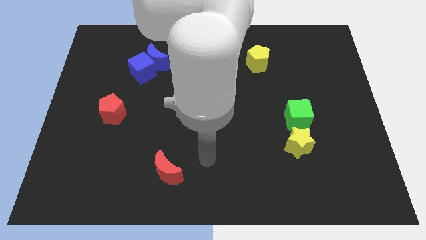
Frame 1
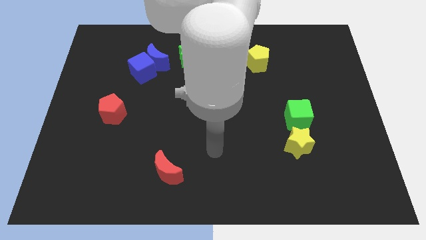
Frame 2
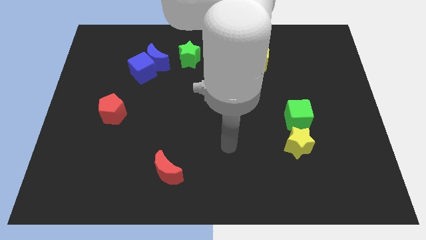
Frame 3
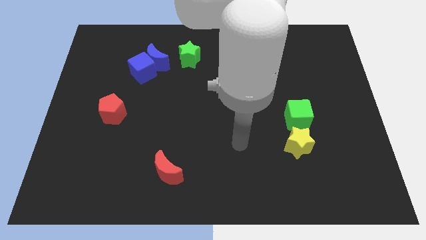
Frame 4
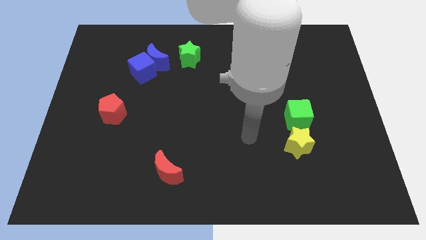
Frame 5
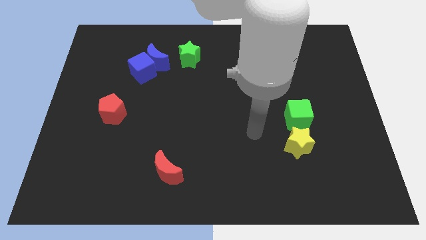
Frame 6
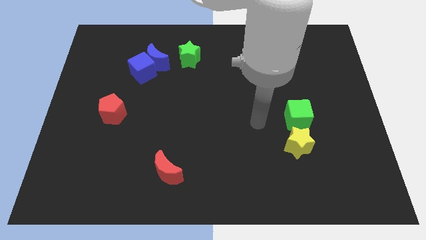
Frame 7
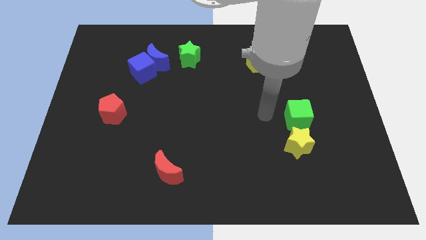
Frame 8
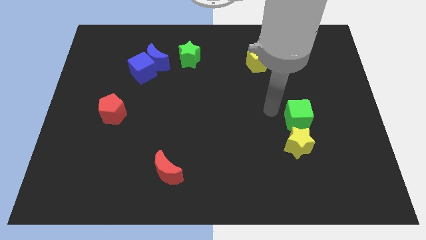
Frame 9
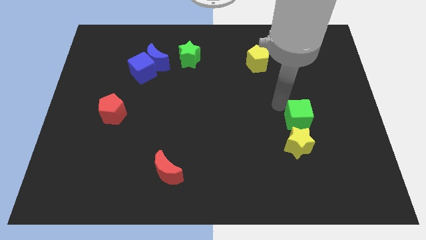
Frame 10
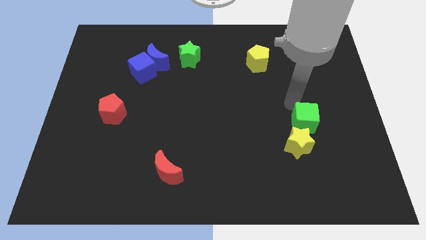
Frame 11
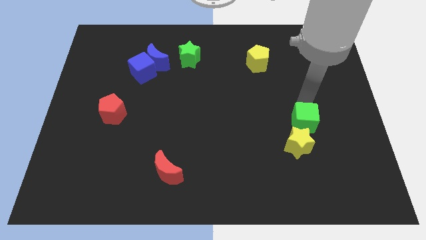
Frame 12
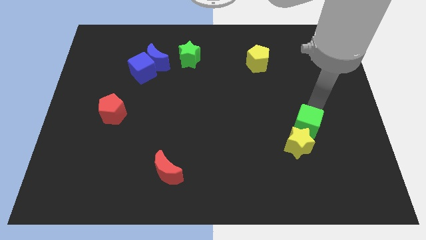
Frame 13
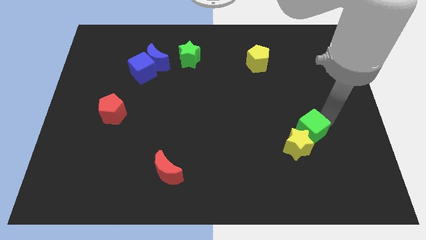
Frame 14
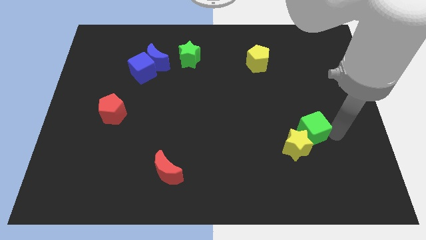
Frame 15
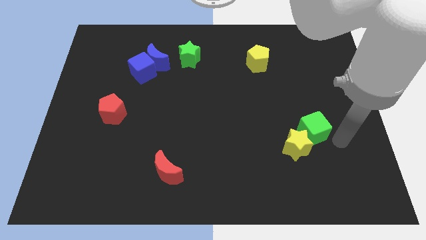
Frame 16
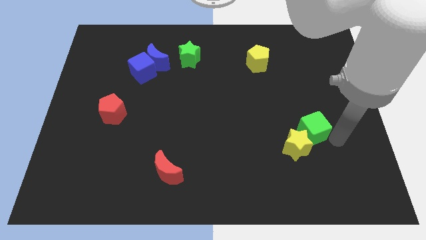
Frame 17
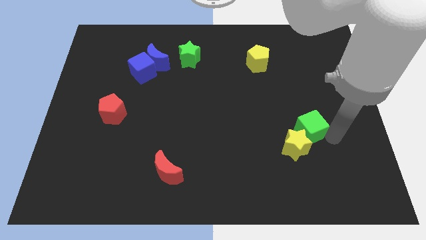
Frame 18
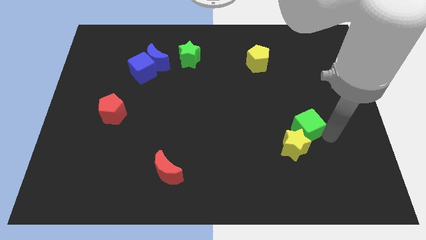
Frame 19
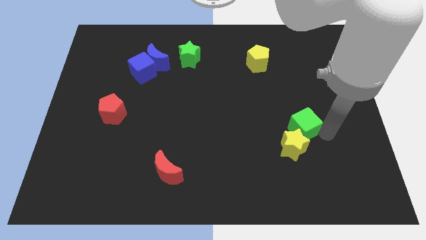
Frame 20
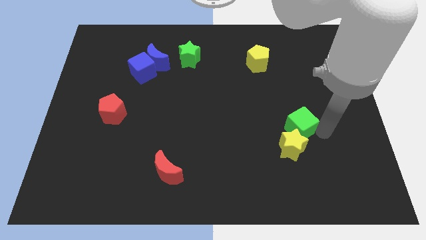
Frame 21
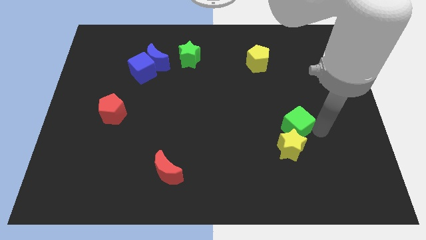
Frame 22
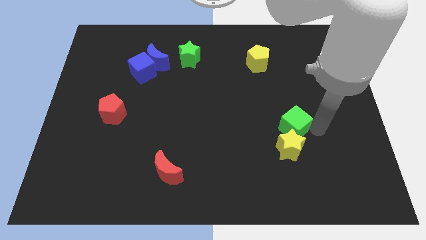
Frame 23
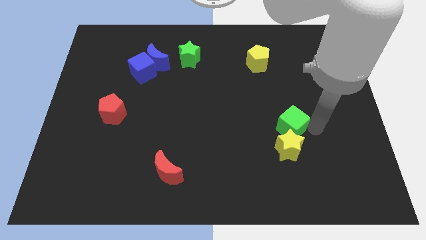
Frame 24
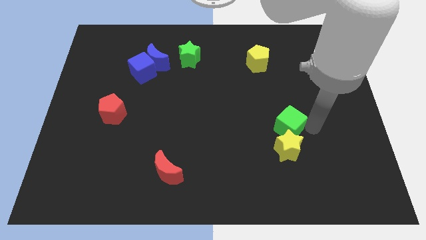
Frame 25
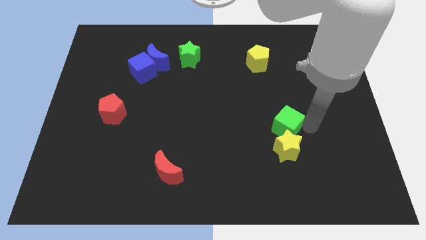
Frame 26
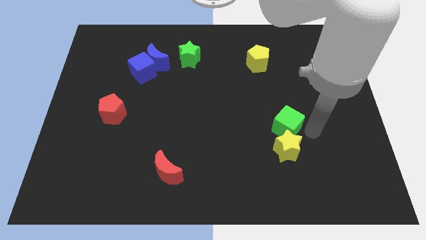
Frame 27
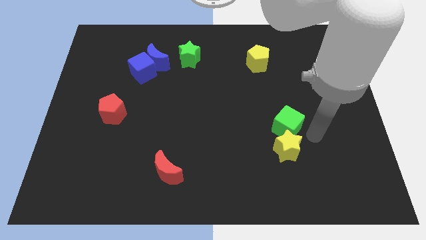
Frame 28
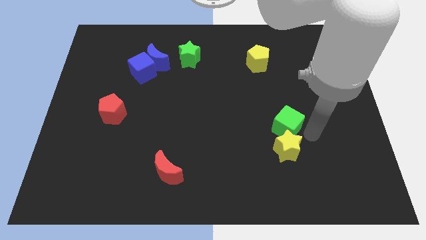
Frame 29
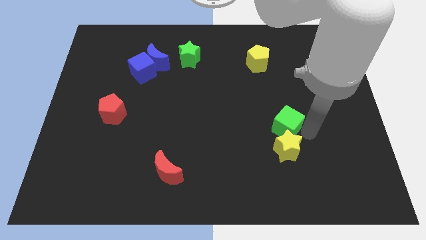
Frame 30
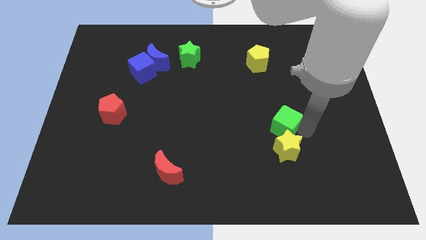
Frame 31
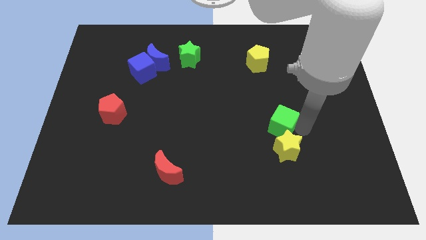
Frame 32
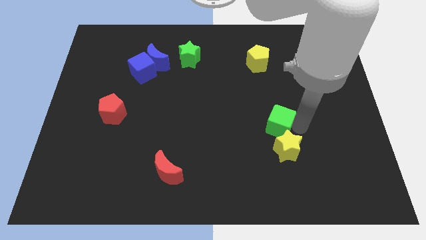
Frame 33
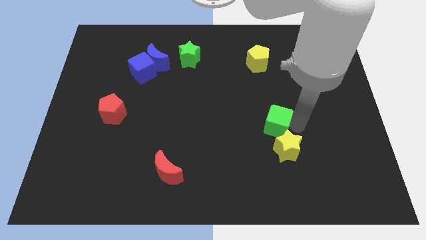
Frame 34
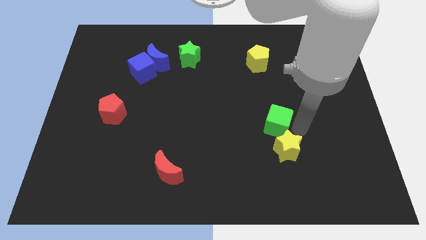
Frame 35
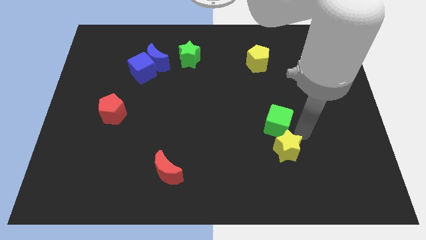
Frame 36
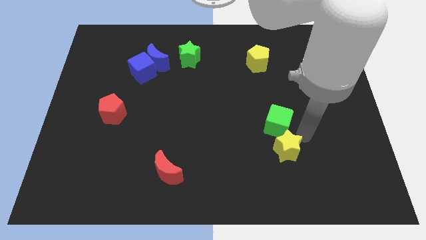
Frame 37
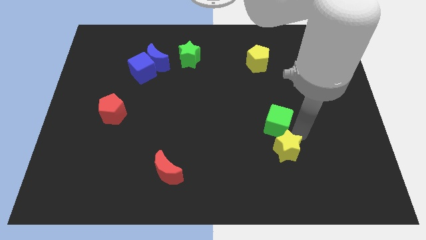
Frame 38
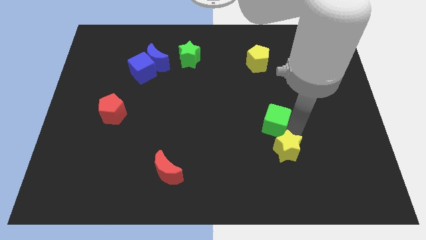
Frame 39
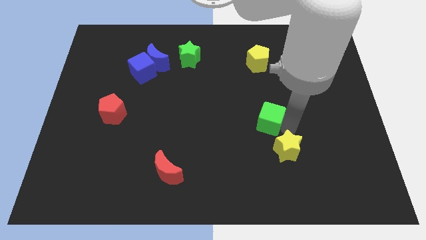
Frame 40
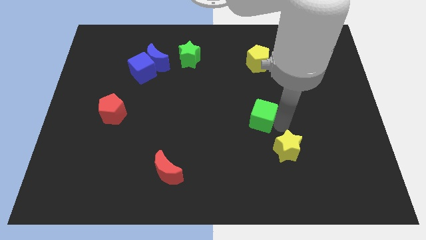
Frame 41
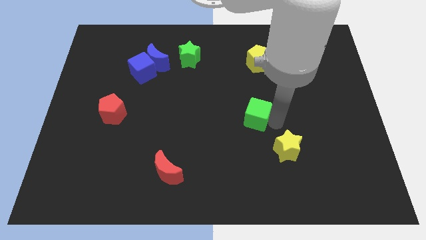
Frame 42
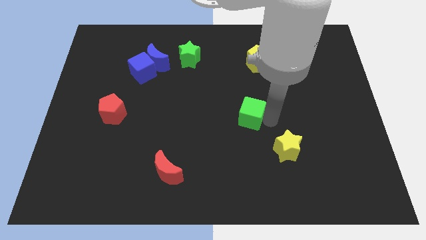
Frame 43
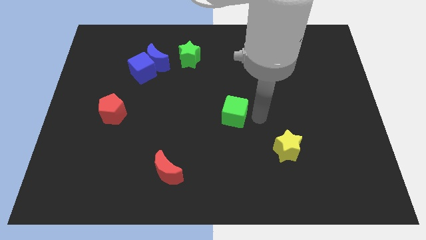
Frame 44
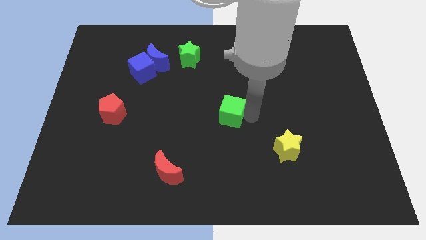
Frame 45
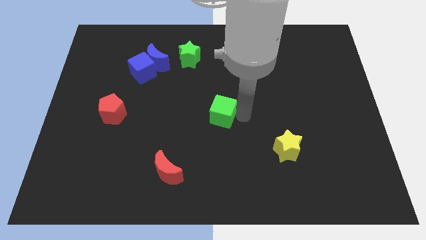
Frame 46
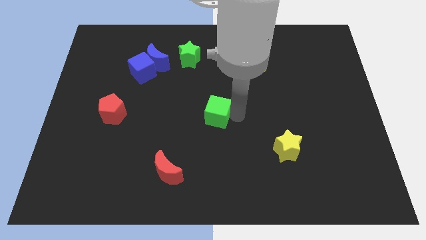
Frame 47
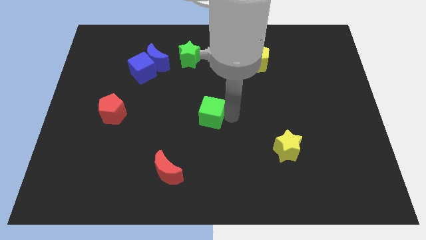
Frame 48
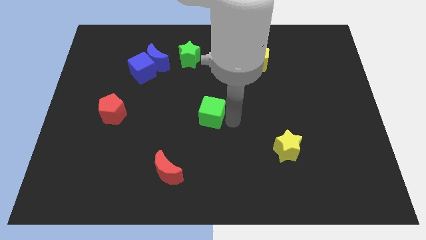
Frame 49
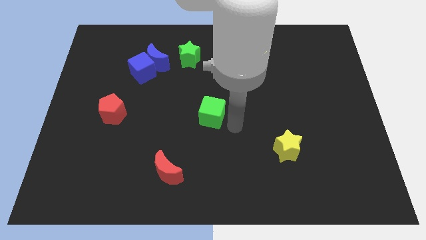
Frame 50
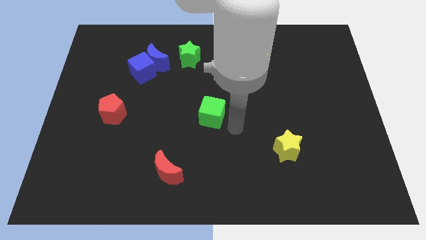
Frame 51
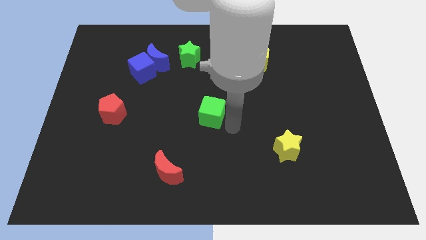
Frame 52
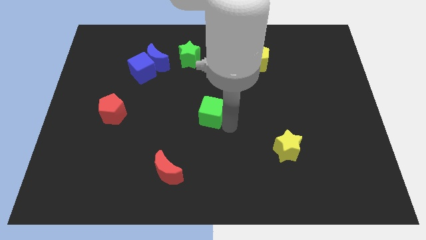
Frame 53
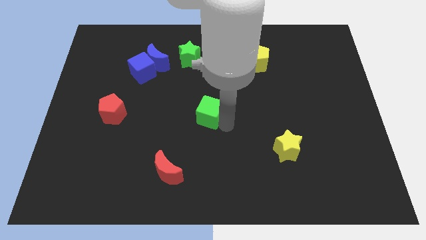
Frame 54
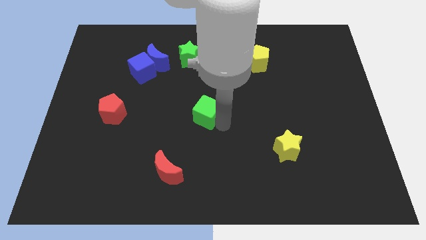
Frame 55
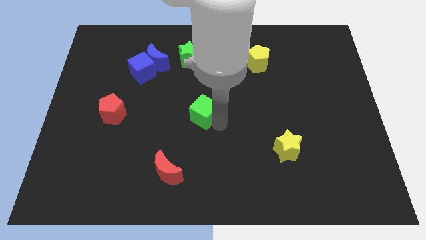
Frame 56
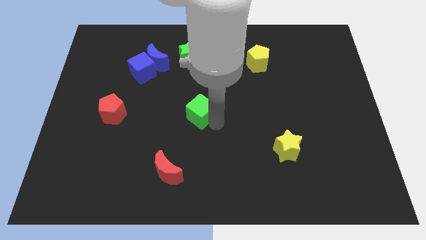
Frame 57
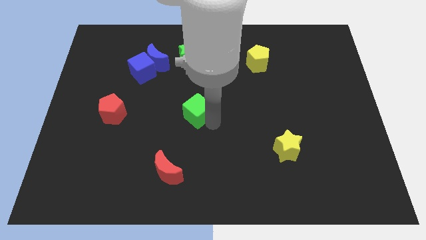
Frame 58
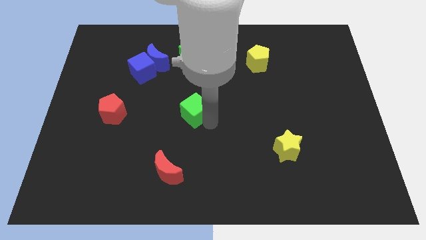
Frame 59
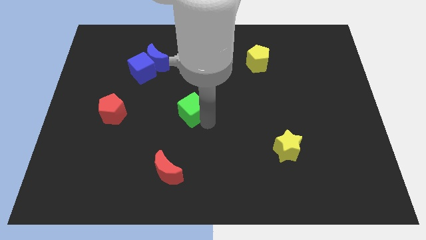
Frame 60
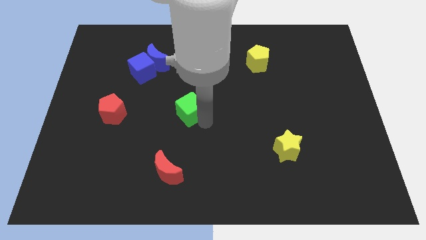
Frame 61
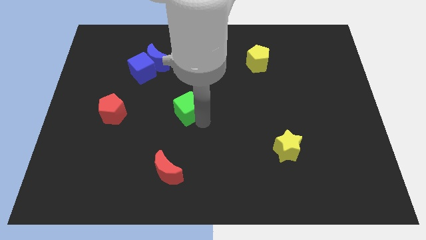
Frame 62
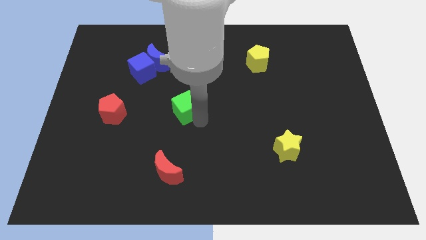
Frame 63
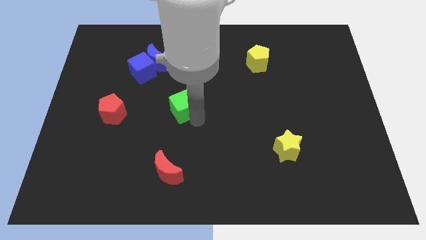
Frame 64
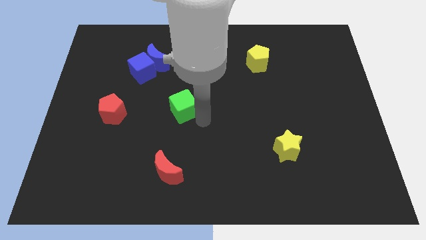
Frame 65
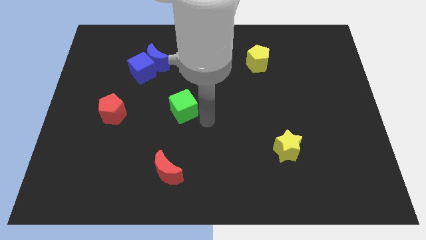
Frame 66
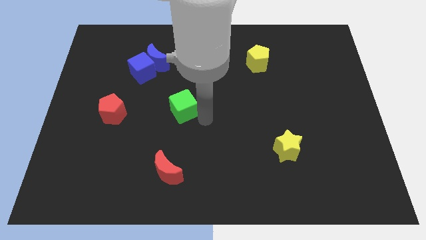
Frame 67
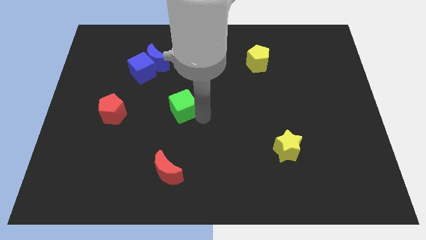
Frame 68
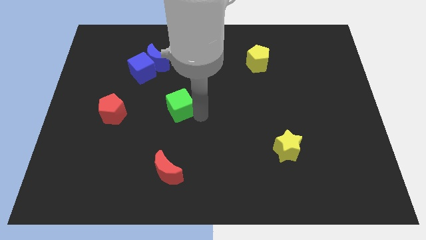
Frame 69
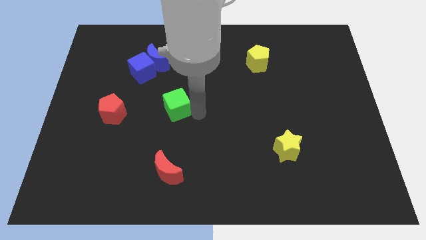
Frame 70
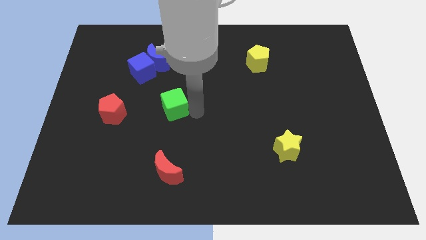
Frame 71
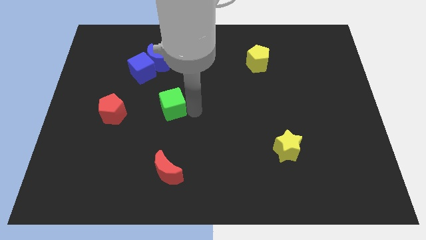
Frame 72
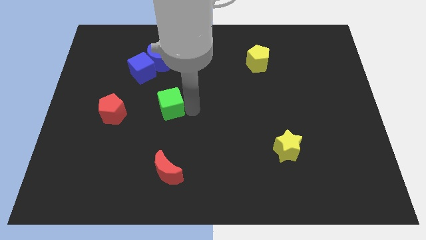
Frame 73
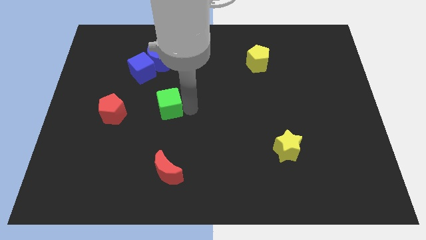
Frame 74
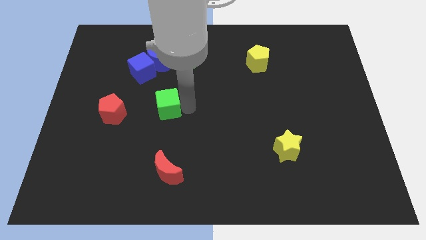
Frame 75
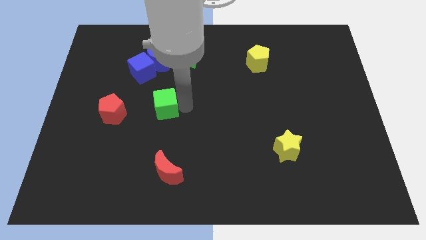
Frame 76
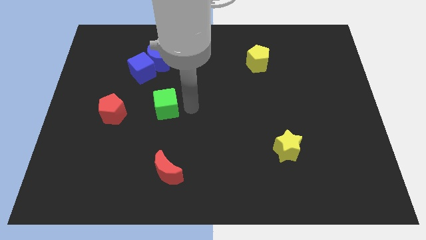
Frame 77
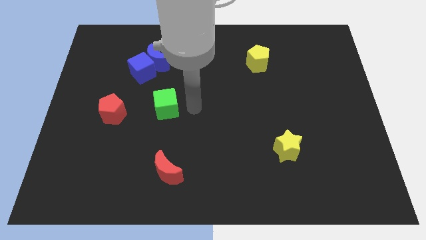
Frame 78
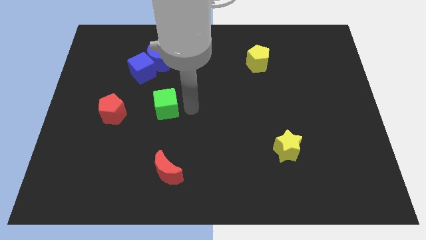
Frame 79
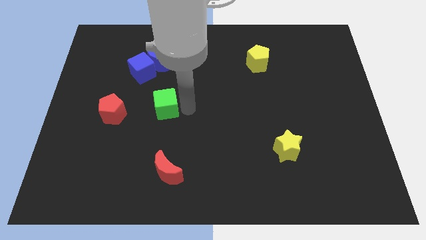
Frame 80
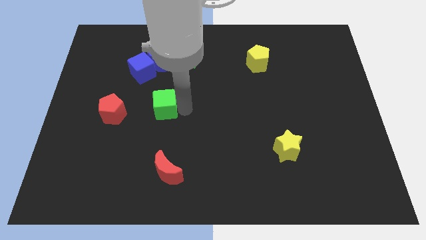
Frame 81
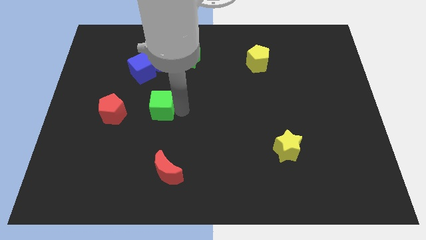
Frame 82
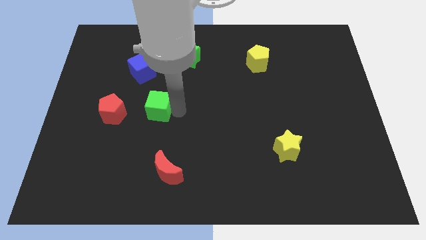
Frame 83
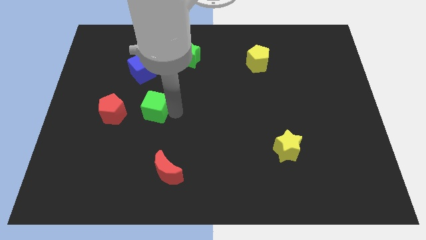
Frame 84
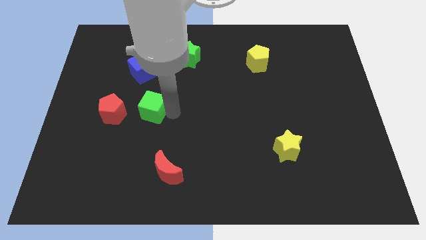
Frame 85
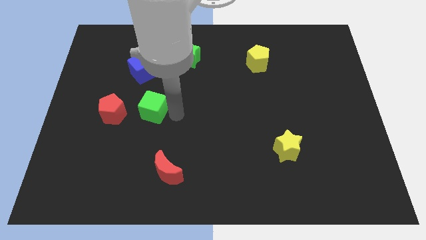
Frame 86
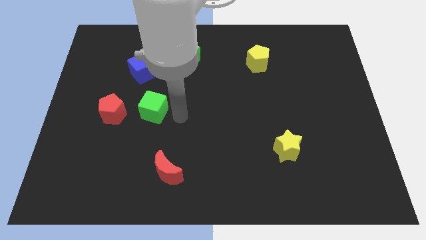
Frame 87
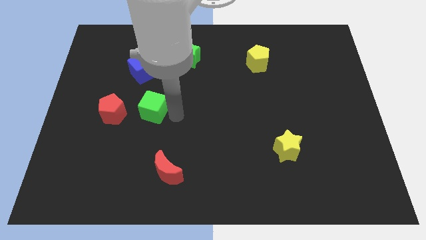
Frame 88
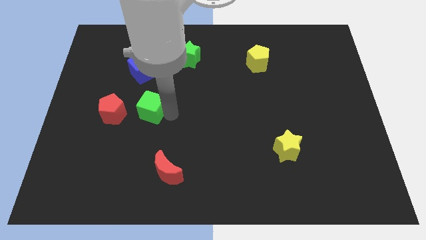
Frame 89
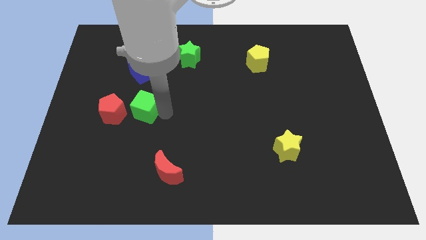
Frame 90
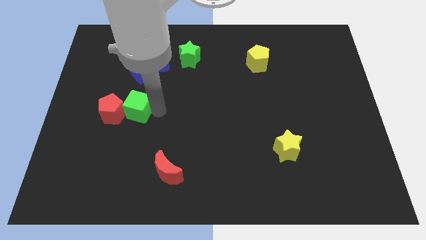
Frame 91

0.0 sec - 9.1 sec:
put the green cube close to the red pentagon
